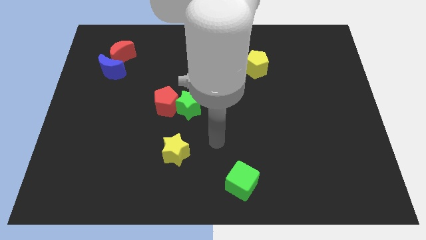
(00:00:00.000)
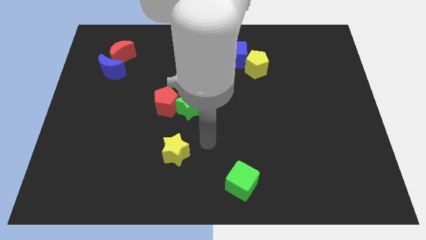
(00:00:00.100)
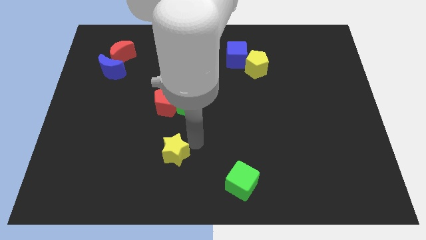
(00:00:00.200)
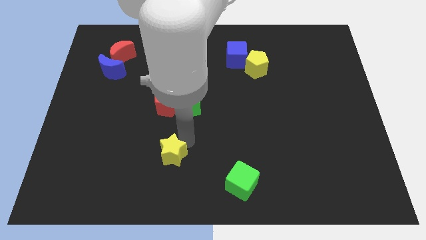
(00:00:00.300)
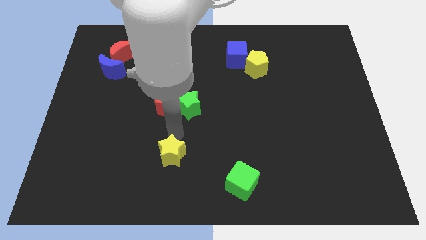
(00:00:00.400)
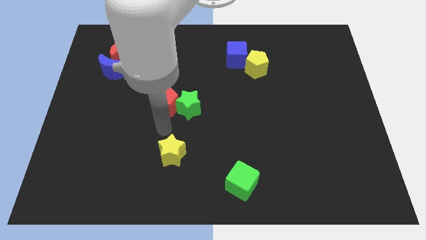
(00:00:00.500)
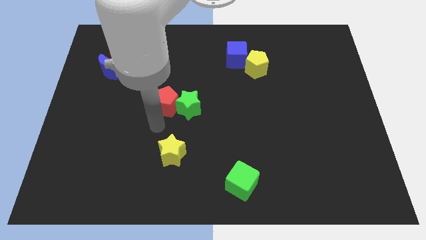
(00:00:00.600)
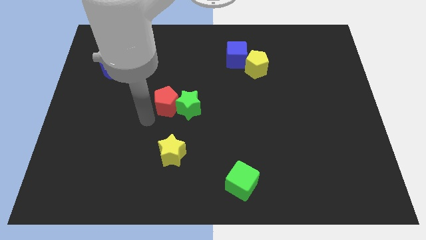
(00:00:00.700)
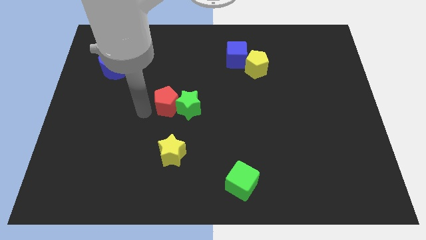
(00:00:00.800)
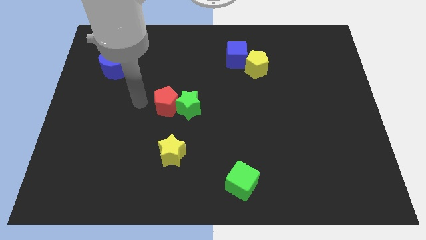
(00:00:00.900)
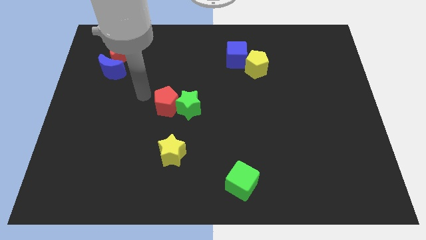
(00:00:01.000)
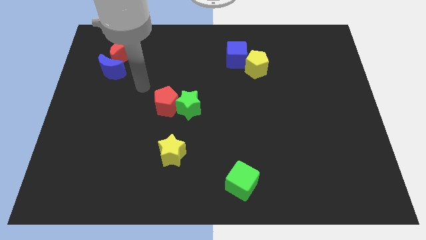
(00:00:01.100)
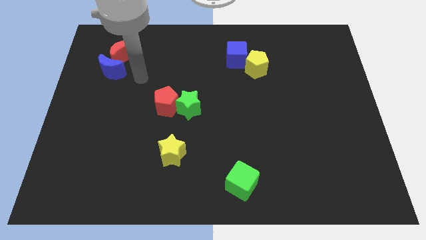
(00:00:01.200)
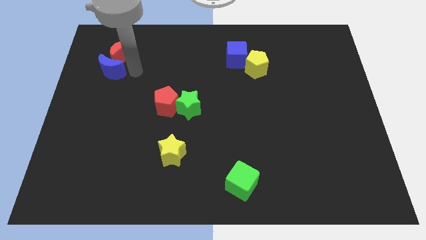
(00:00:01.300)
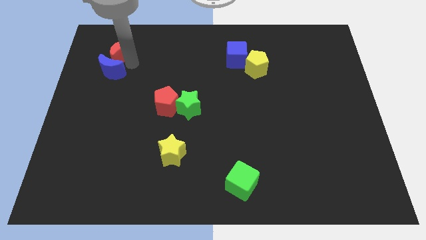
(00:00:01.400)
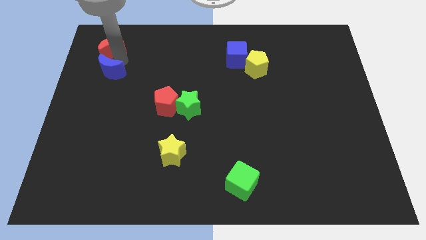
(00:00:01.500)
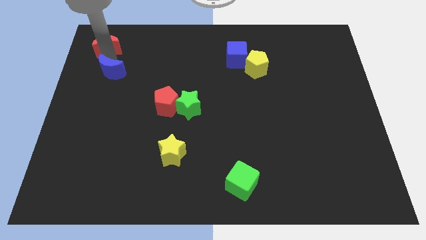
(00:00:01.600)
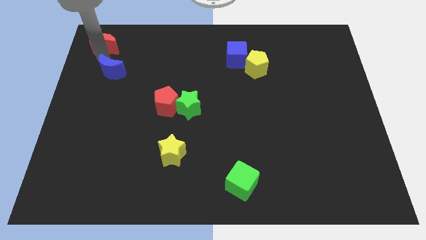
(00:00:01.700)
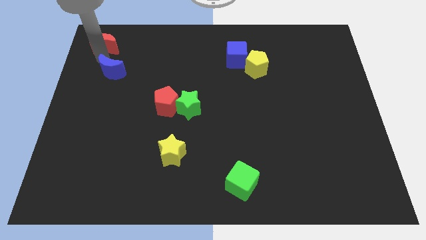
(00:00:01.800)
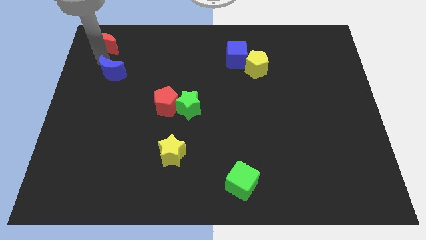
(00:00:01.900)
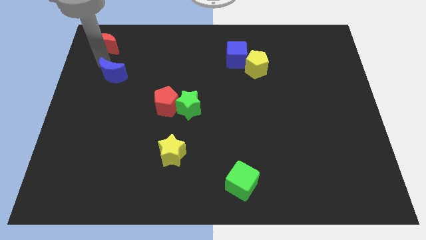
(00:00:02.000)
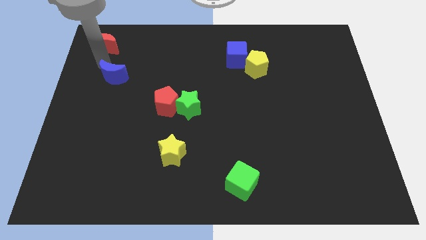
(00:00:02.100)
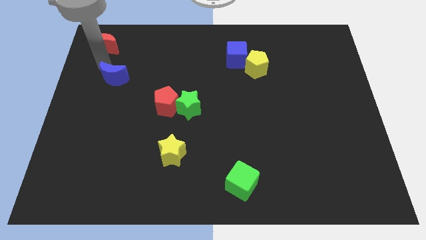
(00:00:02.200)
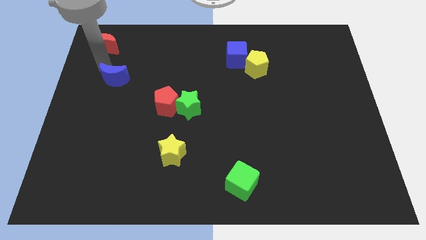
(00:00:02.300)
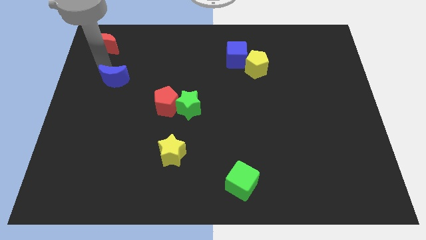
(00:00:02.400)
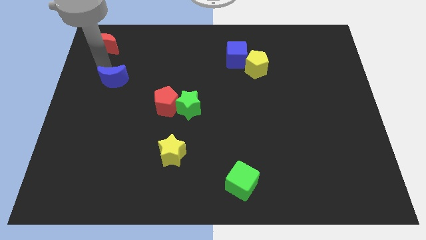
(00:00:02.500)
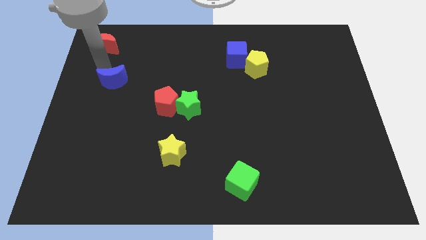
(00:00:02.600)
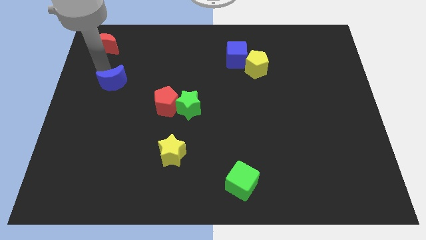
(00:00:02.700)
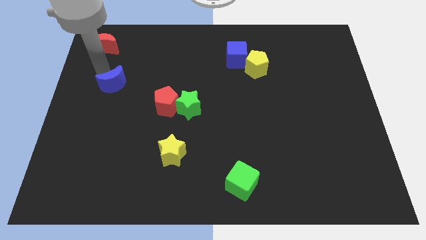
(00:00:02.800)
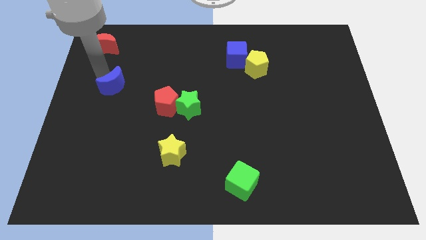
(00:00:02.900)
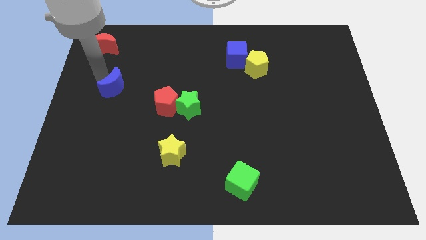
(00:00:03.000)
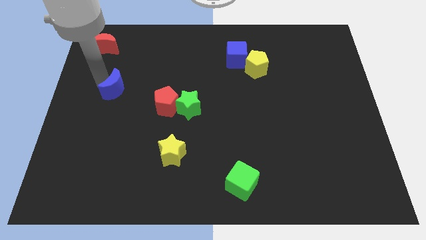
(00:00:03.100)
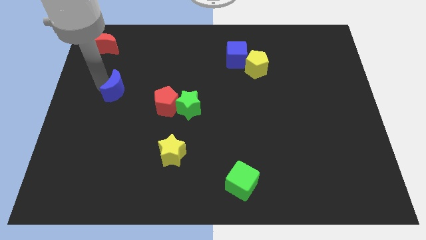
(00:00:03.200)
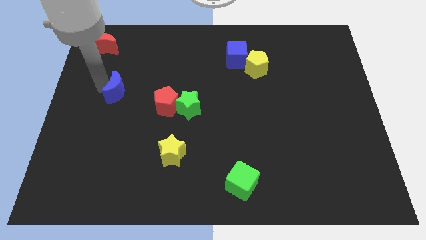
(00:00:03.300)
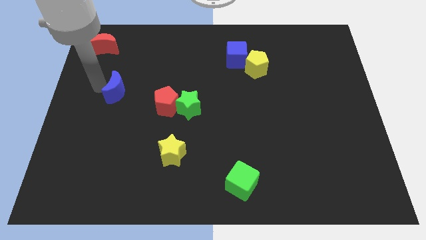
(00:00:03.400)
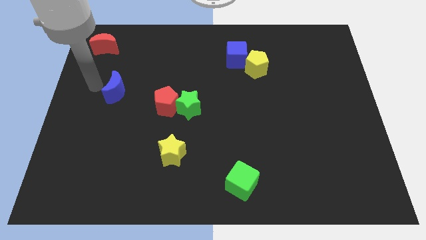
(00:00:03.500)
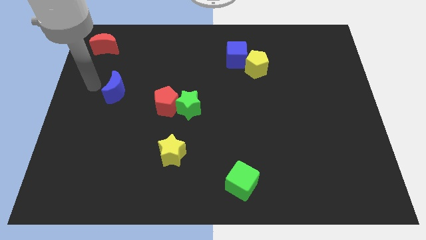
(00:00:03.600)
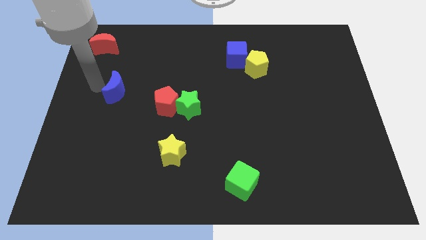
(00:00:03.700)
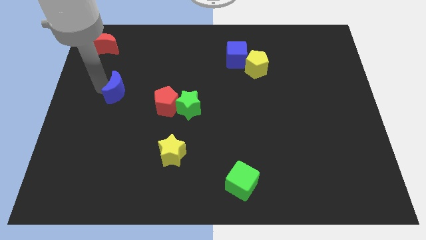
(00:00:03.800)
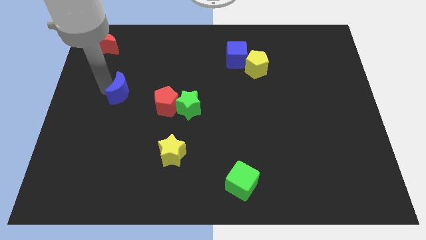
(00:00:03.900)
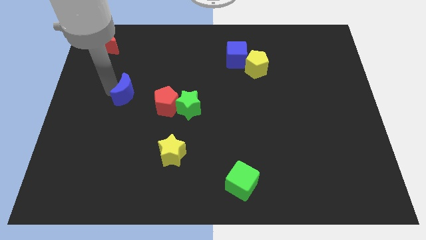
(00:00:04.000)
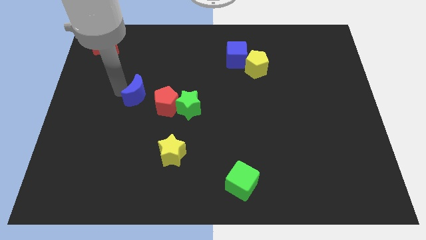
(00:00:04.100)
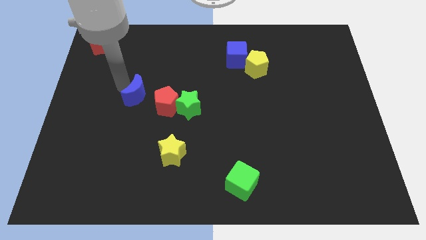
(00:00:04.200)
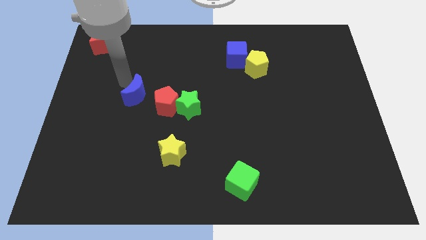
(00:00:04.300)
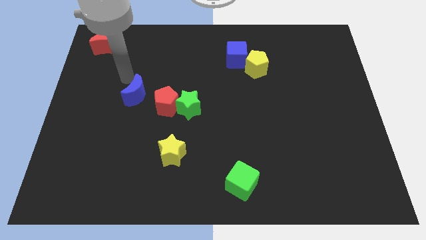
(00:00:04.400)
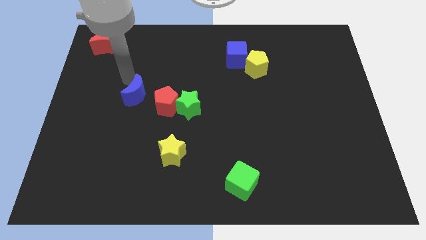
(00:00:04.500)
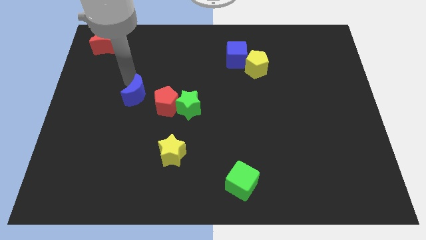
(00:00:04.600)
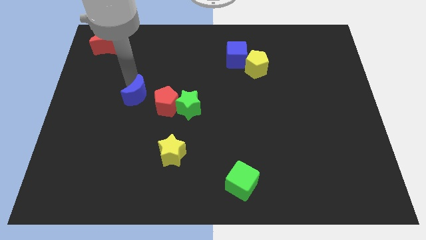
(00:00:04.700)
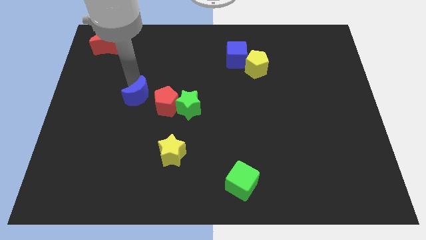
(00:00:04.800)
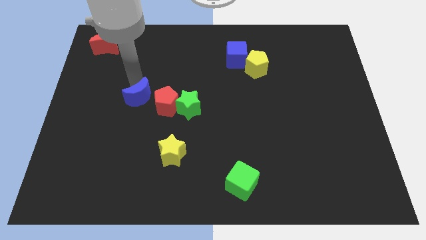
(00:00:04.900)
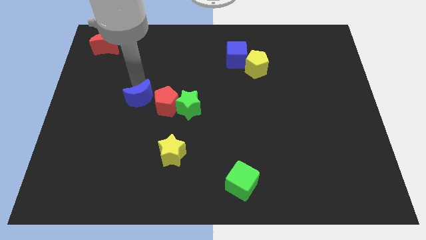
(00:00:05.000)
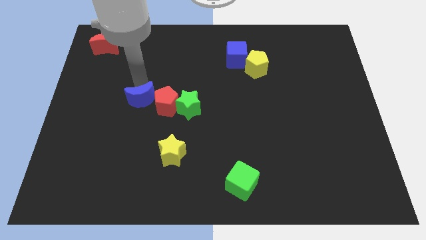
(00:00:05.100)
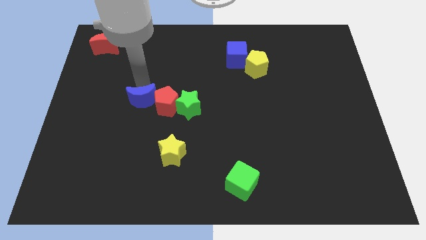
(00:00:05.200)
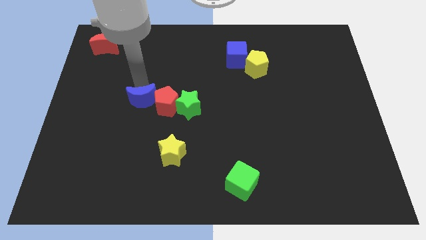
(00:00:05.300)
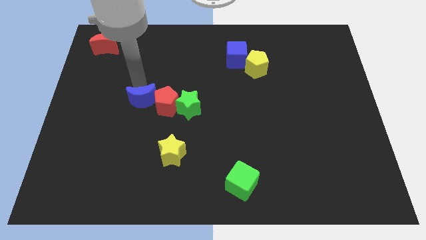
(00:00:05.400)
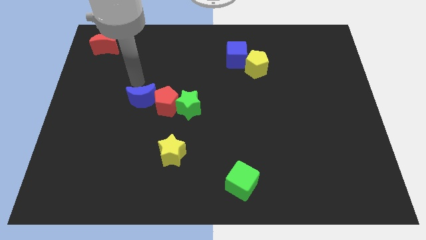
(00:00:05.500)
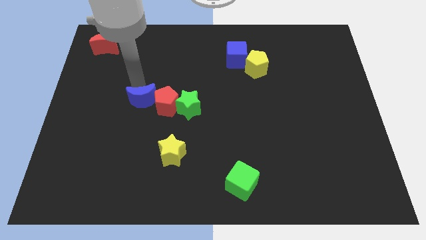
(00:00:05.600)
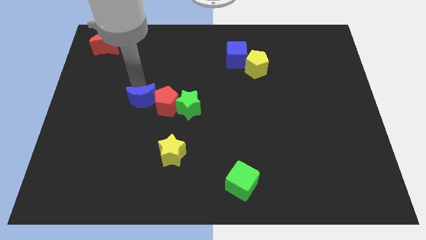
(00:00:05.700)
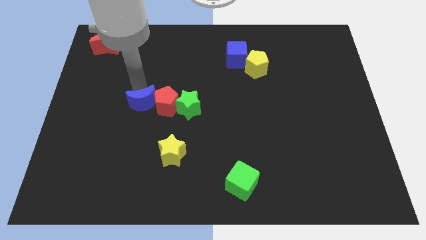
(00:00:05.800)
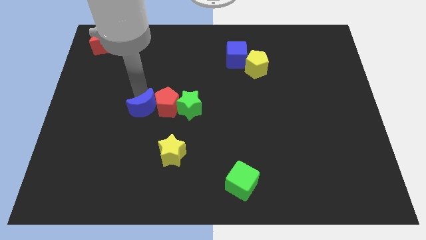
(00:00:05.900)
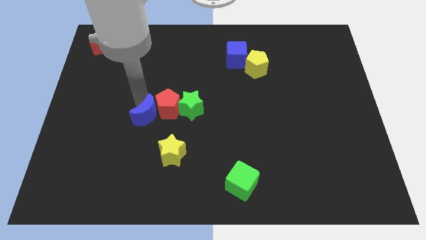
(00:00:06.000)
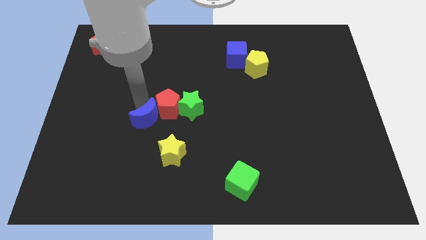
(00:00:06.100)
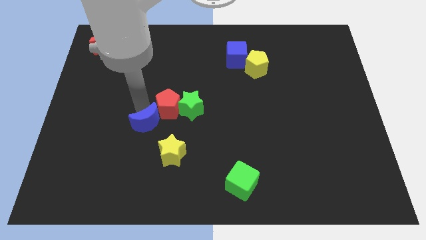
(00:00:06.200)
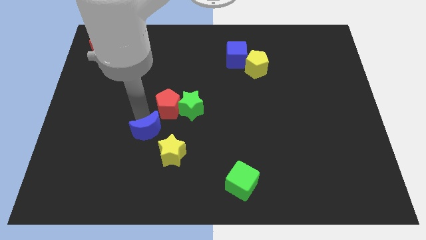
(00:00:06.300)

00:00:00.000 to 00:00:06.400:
slide the blue moon down and then to the right

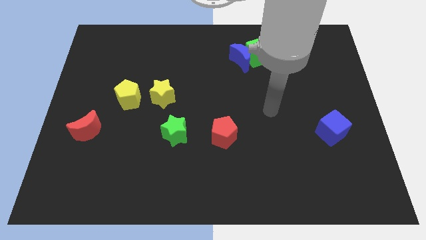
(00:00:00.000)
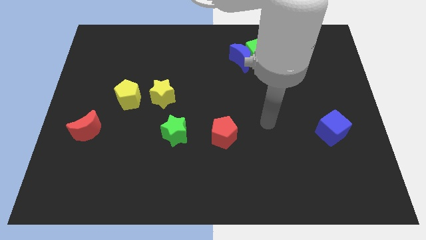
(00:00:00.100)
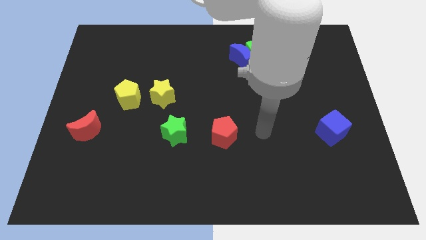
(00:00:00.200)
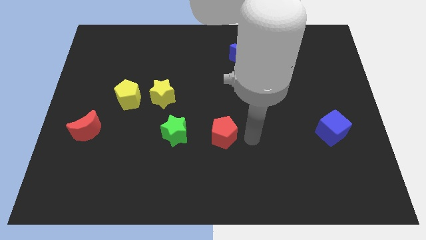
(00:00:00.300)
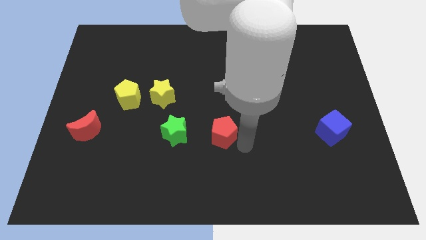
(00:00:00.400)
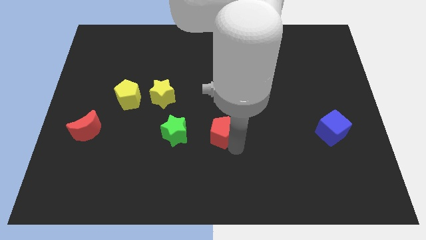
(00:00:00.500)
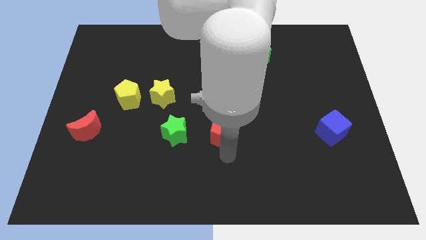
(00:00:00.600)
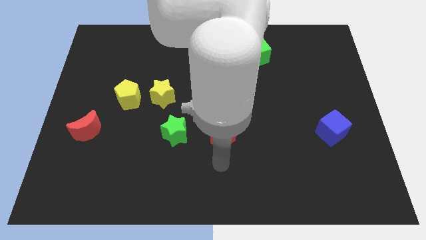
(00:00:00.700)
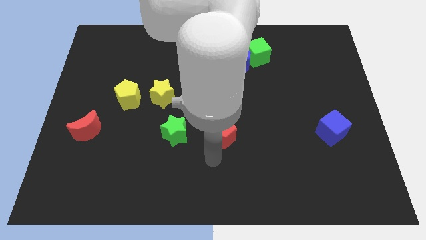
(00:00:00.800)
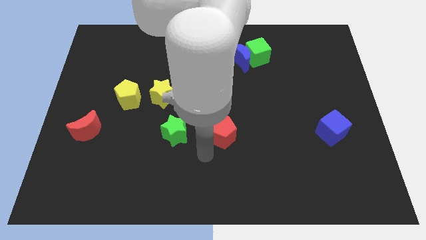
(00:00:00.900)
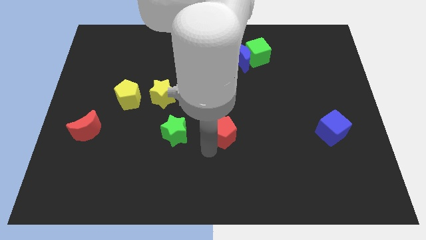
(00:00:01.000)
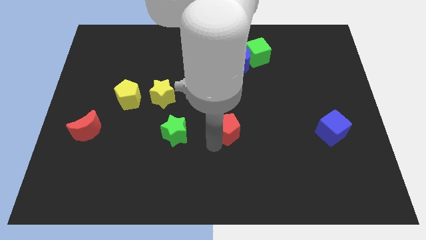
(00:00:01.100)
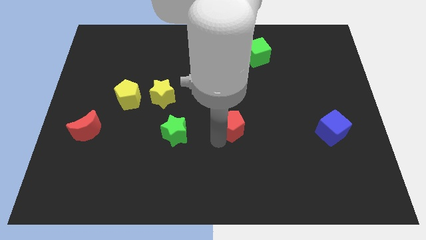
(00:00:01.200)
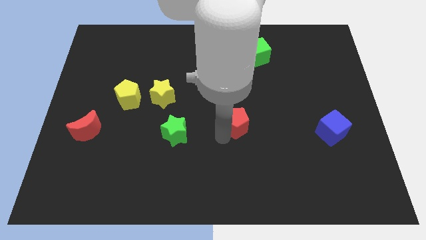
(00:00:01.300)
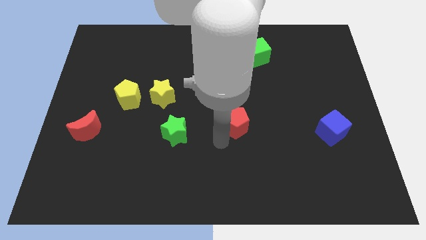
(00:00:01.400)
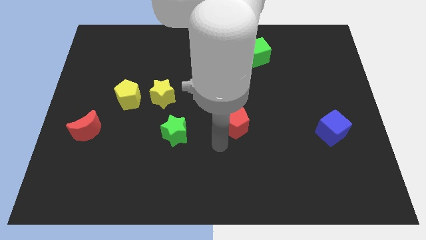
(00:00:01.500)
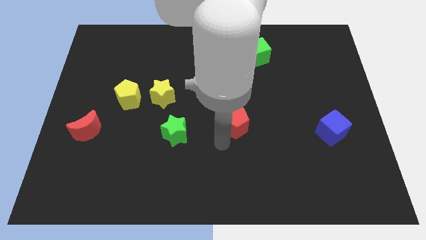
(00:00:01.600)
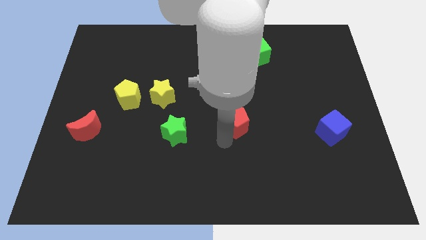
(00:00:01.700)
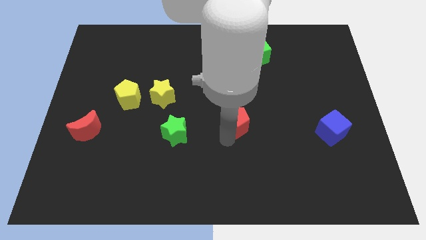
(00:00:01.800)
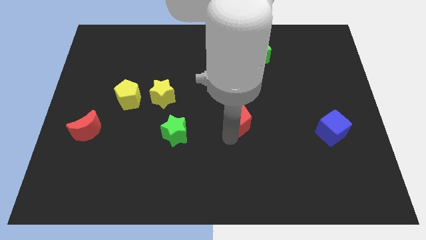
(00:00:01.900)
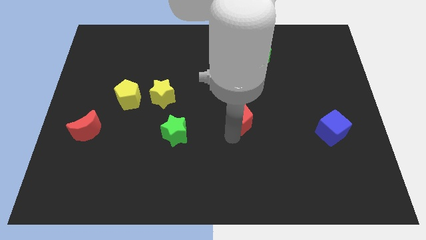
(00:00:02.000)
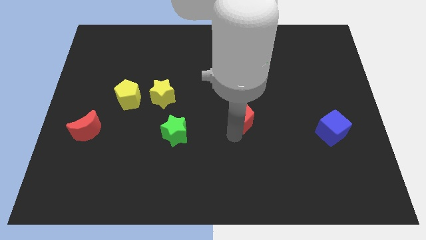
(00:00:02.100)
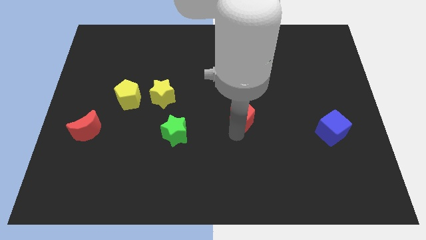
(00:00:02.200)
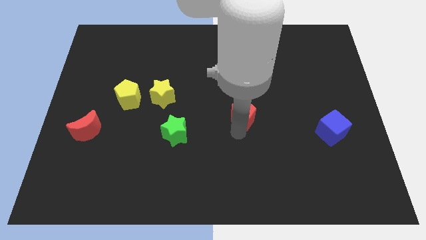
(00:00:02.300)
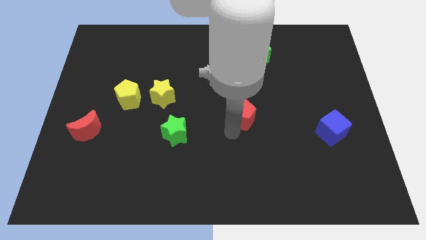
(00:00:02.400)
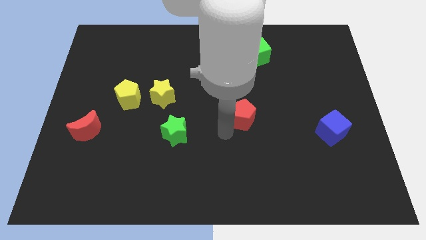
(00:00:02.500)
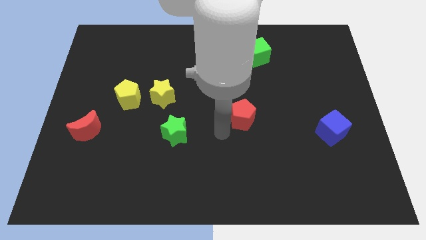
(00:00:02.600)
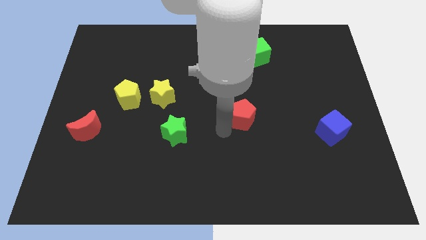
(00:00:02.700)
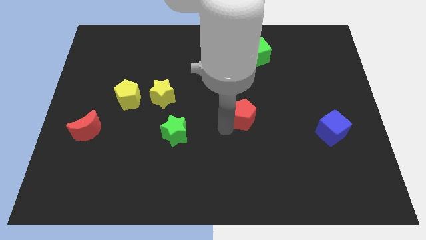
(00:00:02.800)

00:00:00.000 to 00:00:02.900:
slightly move the red pentagon up and to the right diagonally
